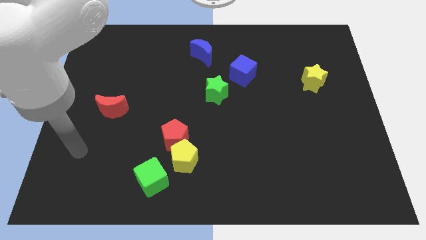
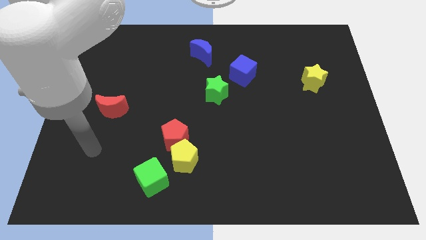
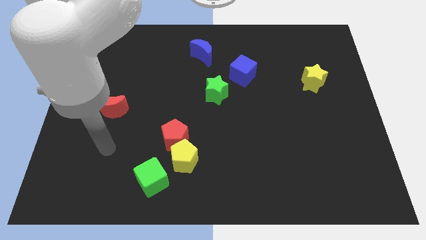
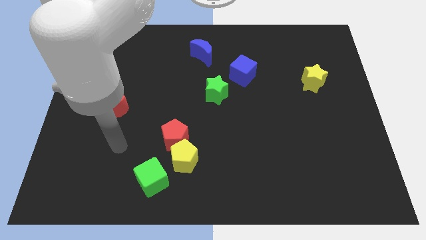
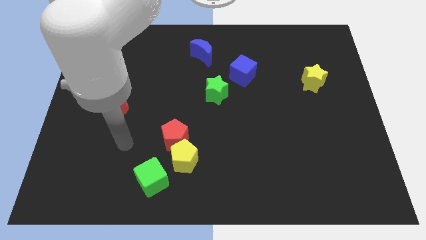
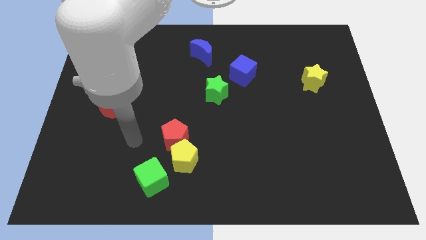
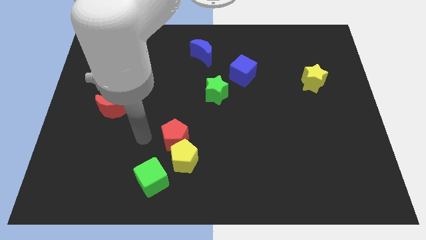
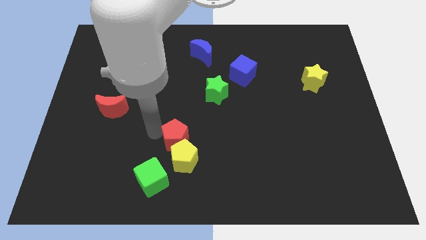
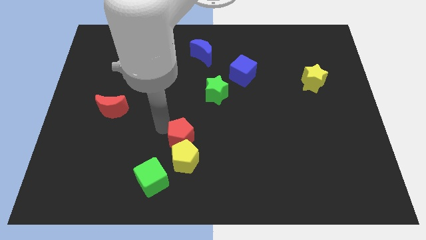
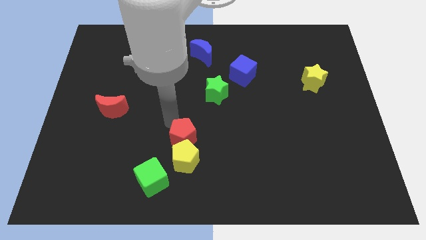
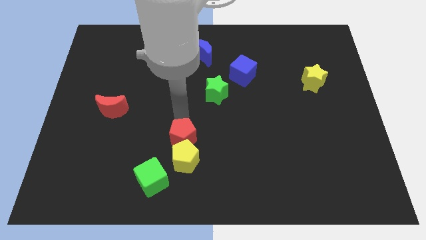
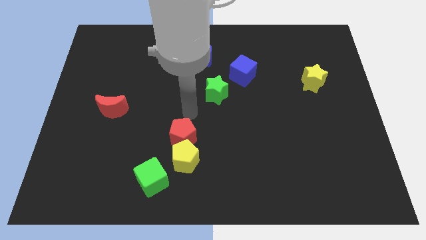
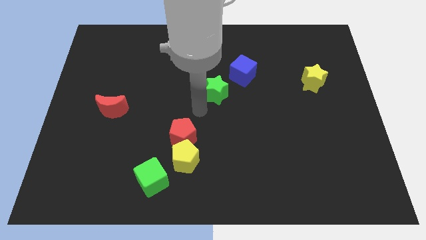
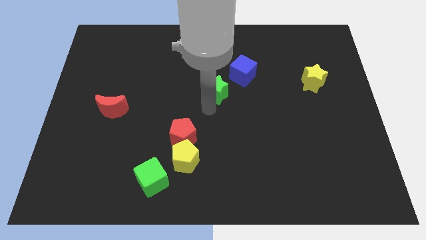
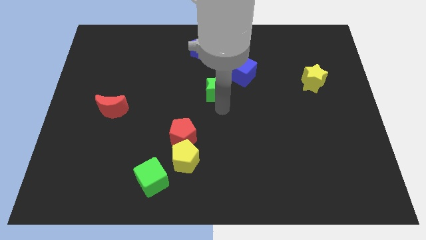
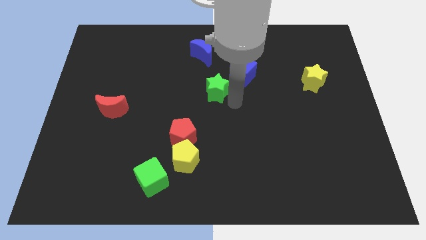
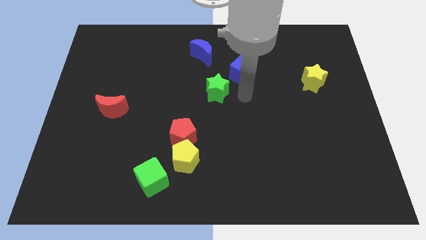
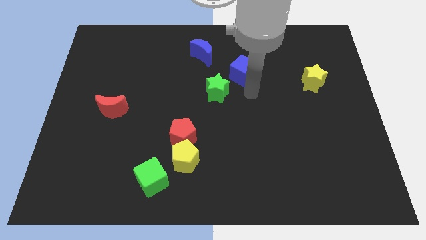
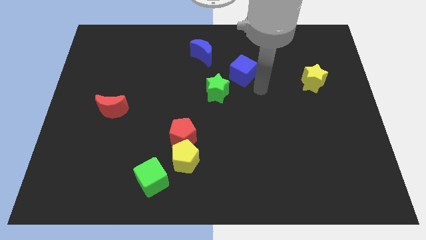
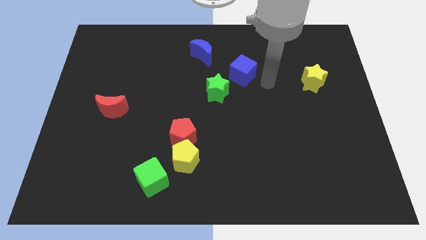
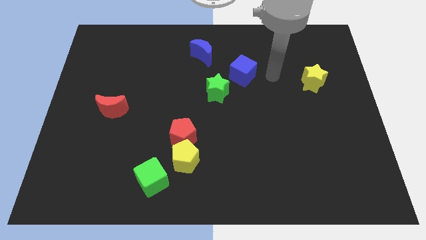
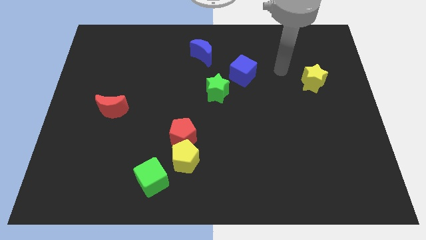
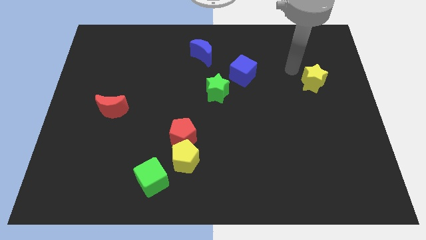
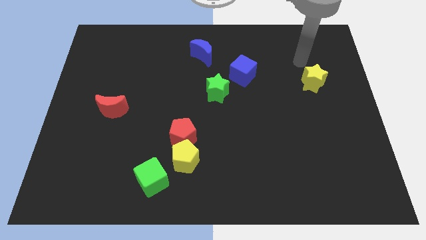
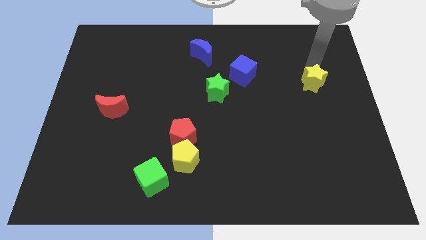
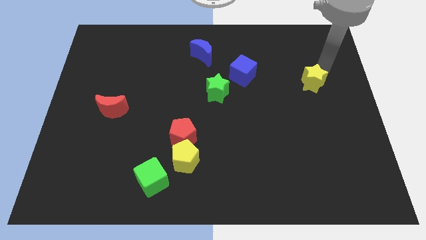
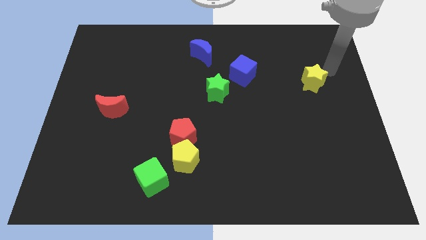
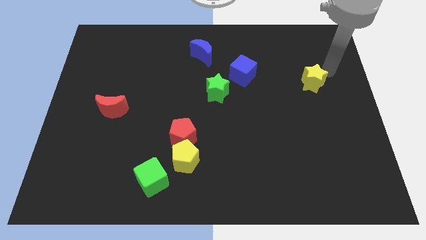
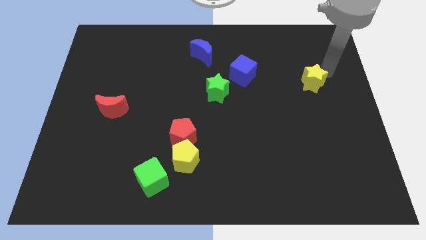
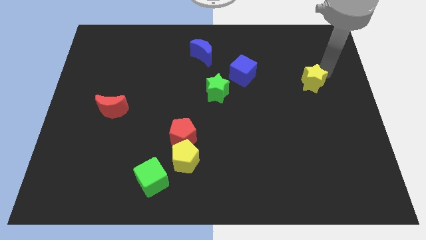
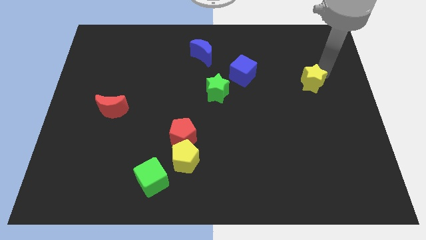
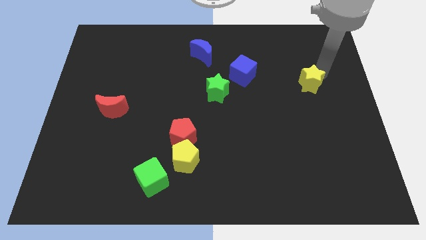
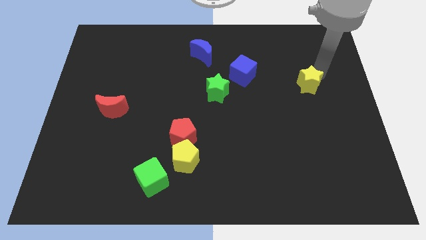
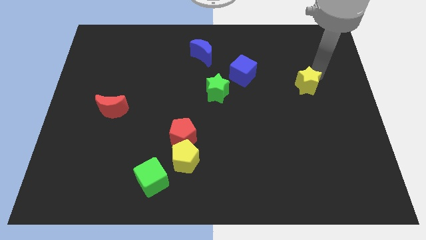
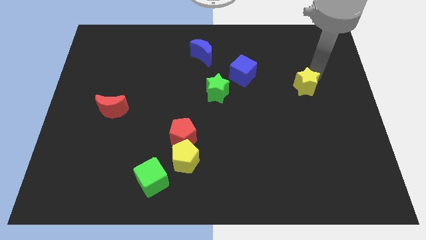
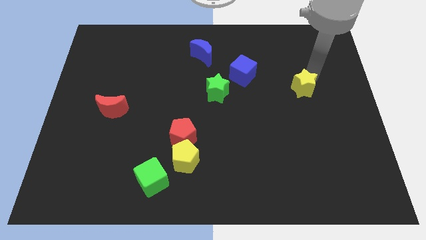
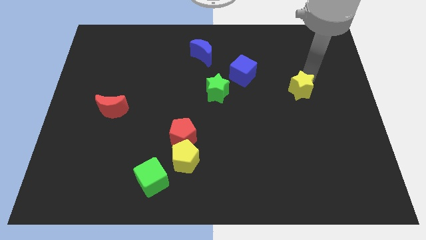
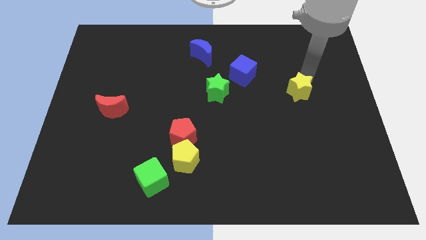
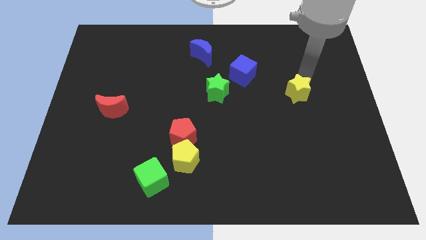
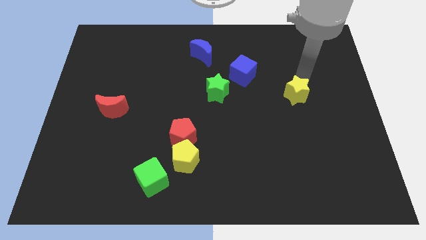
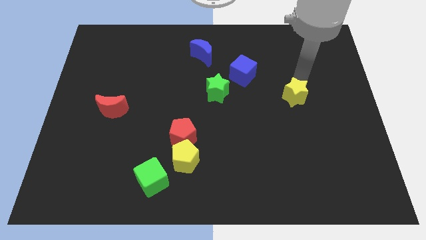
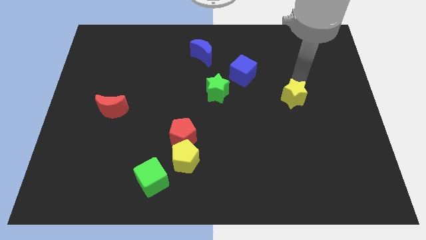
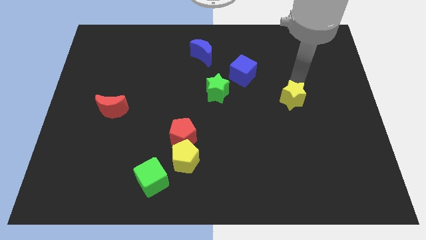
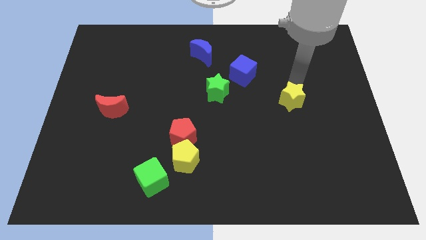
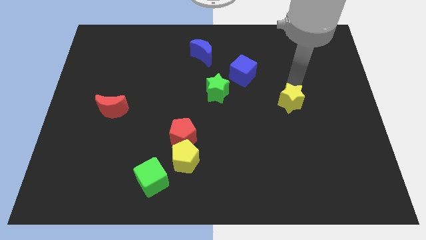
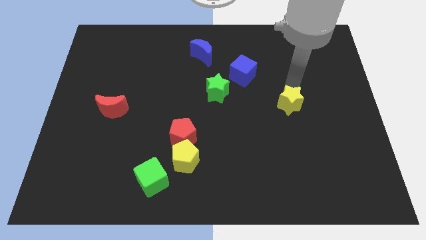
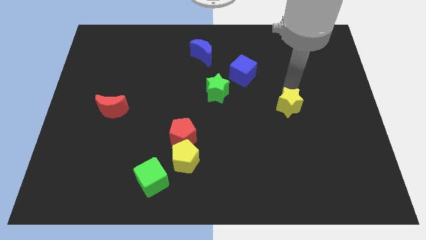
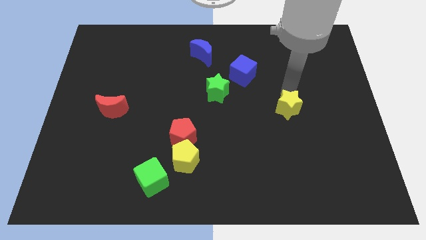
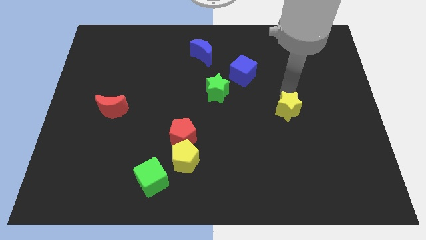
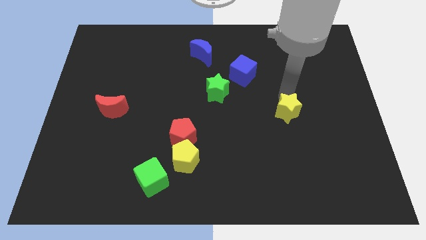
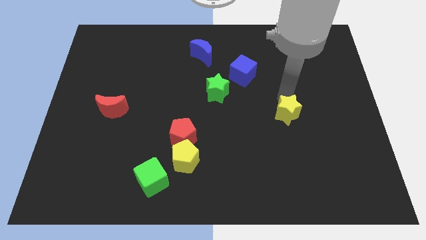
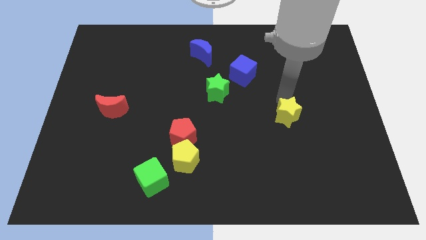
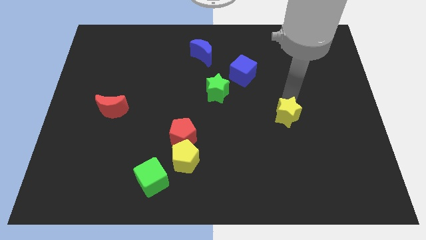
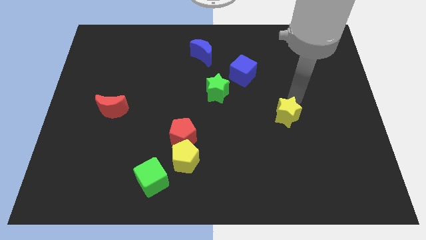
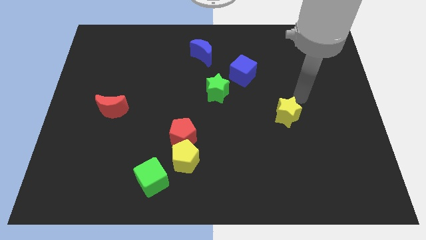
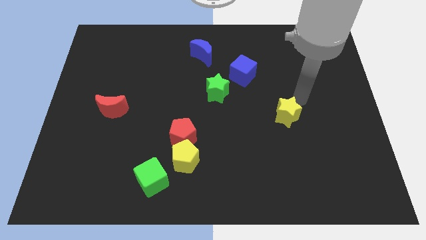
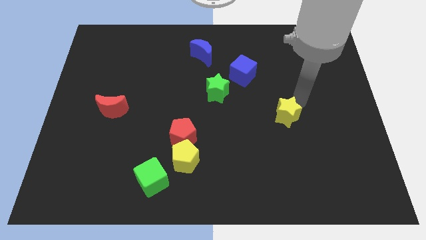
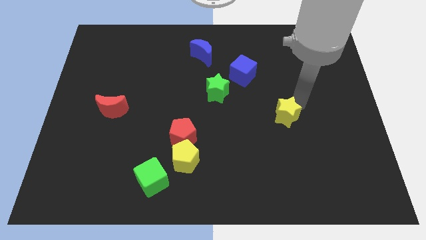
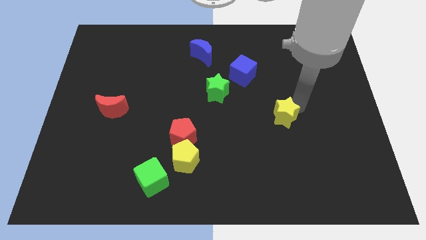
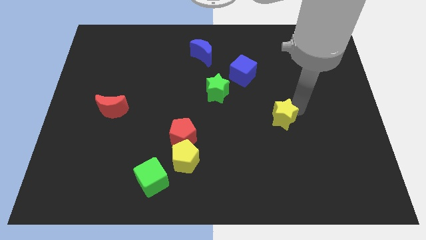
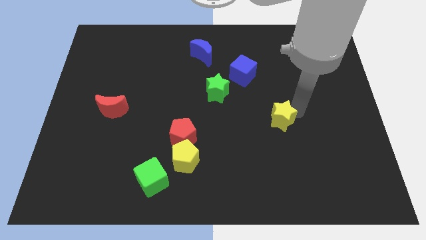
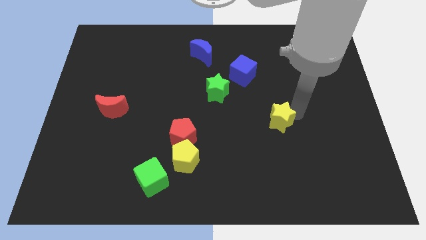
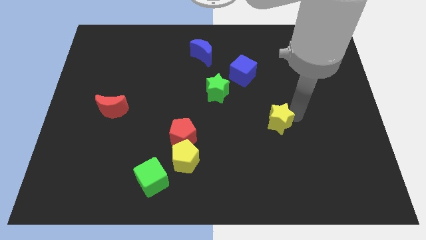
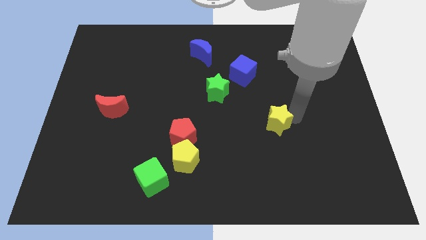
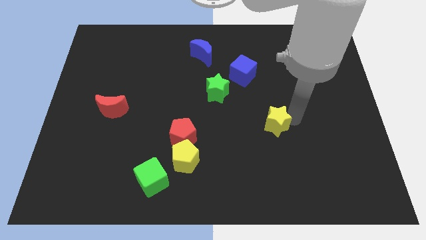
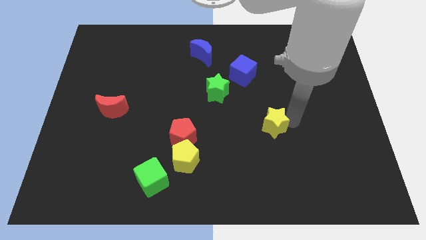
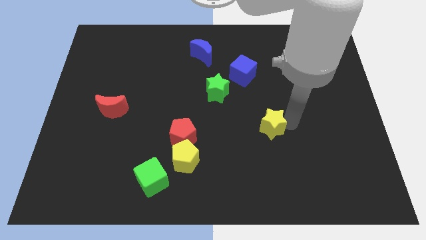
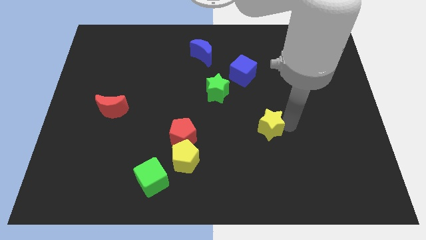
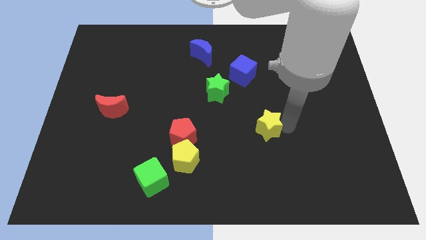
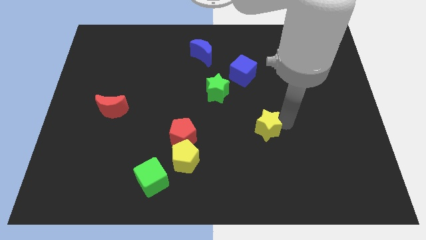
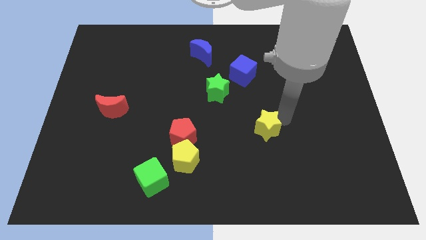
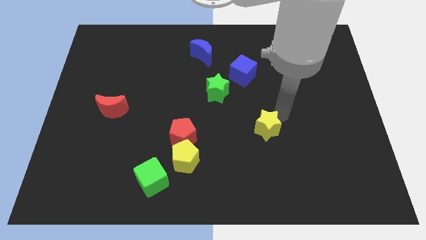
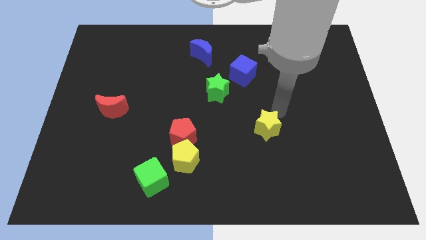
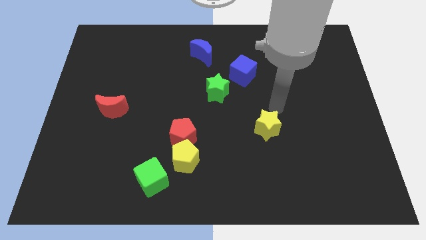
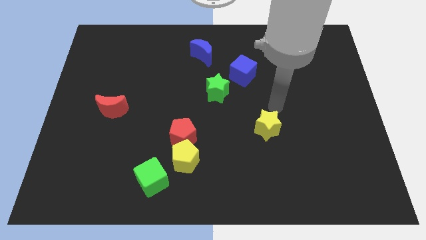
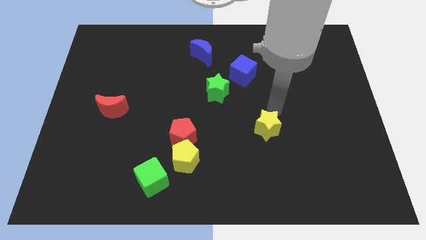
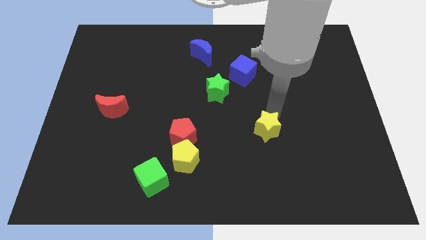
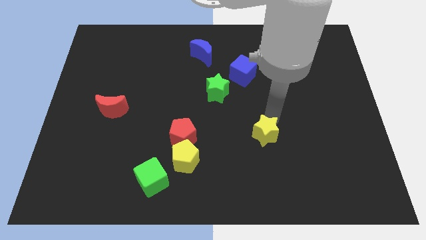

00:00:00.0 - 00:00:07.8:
move the yellow star diagonally down and to the left

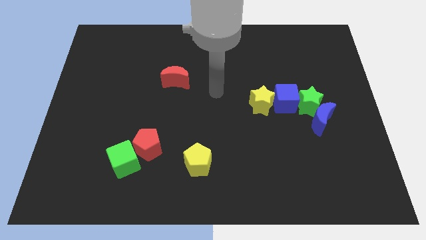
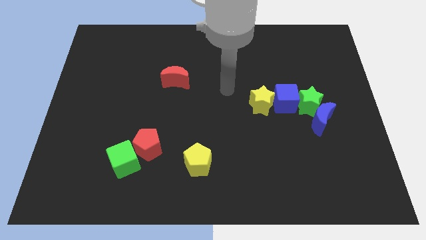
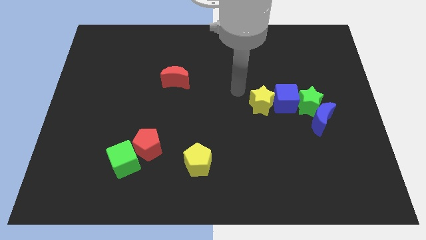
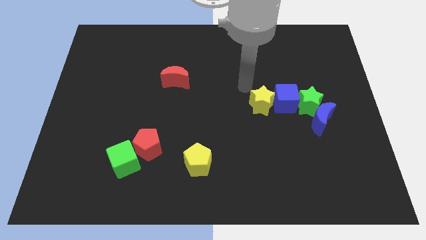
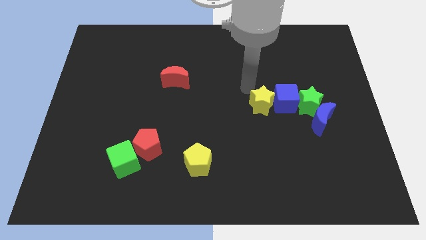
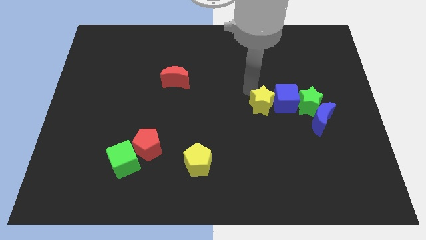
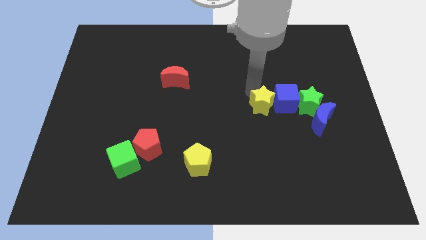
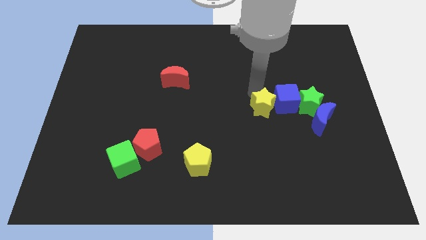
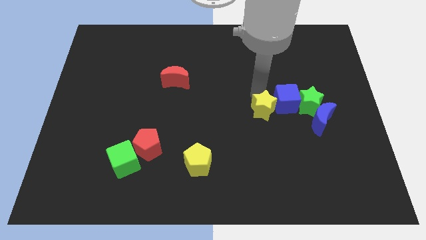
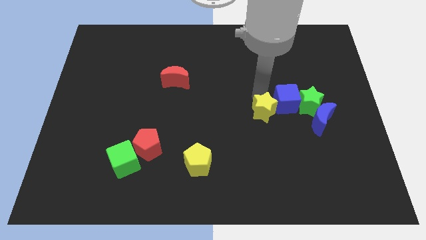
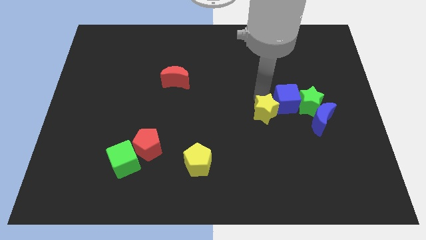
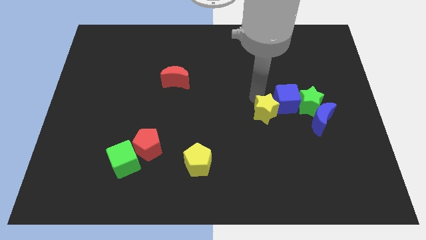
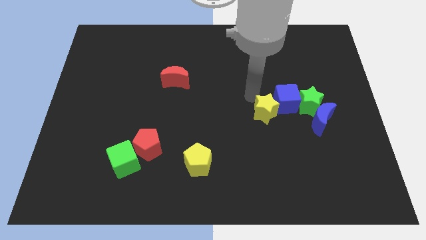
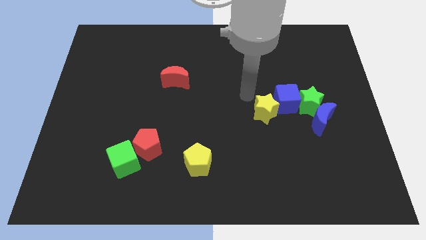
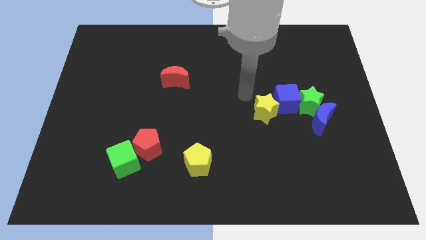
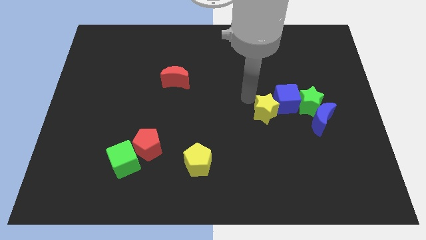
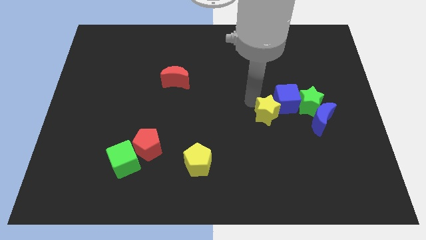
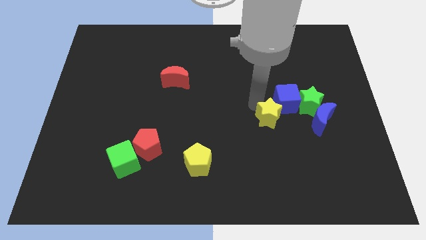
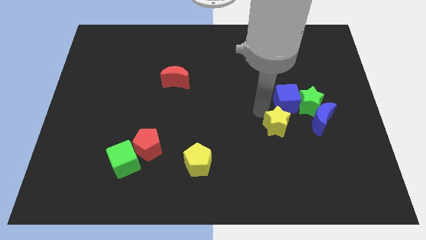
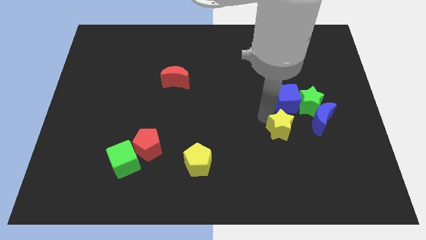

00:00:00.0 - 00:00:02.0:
move the yellow star somewhat diagonally down and to the right
